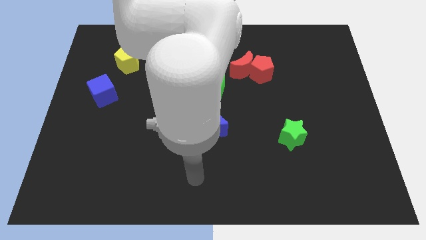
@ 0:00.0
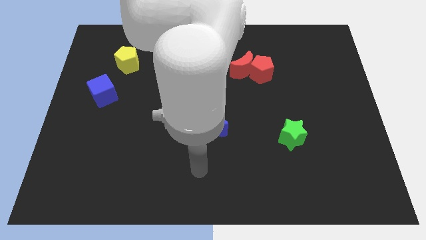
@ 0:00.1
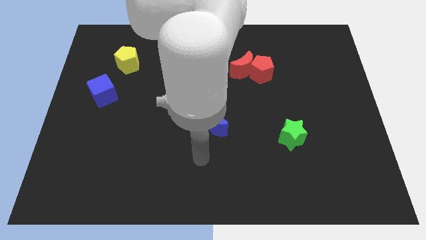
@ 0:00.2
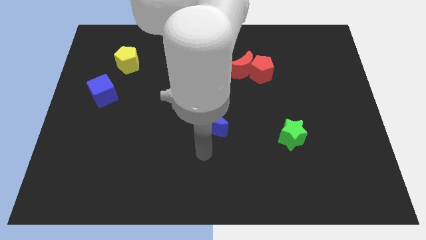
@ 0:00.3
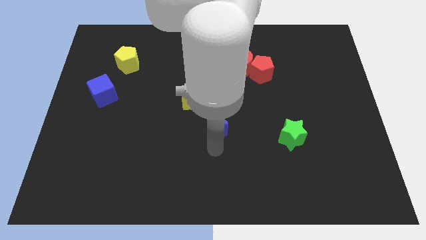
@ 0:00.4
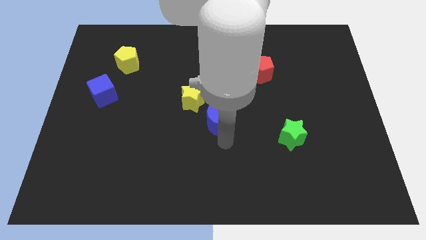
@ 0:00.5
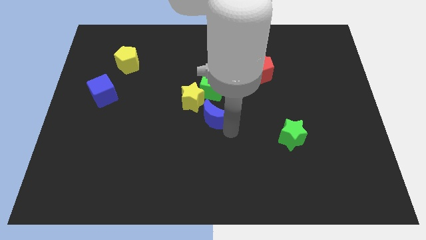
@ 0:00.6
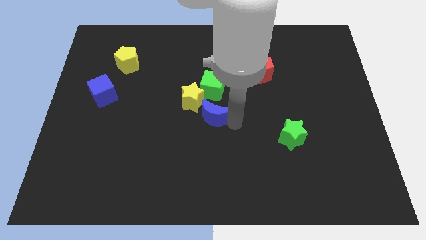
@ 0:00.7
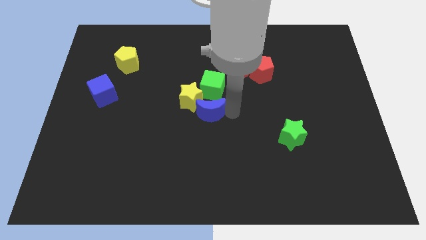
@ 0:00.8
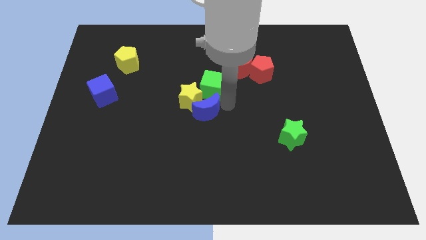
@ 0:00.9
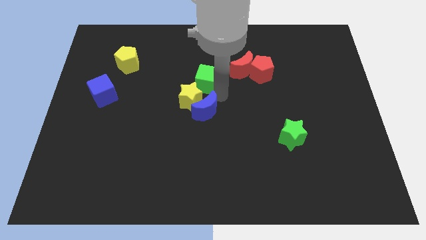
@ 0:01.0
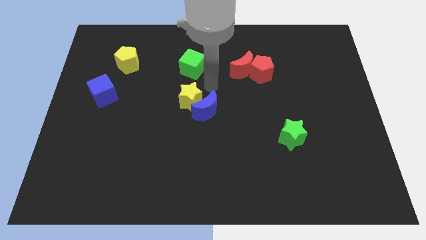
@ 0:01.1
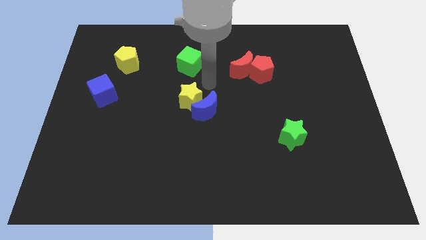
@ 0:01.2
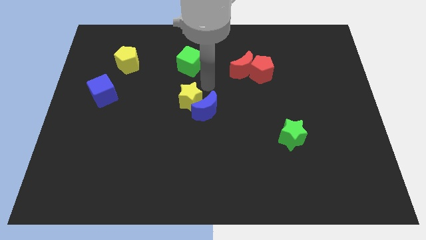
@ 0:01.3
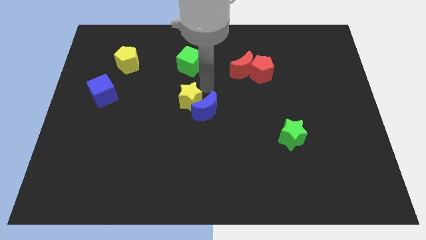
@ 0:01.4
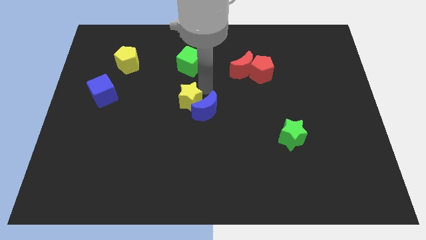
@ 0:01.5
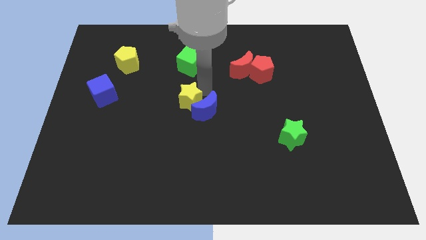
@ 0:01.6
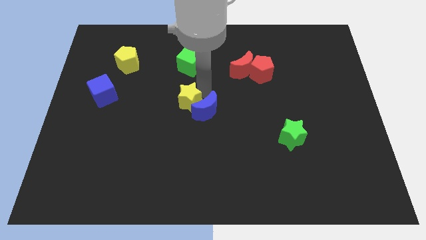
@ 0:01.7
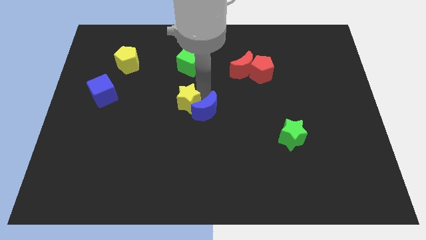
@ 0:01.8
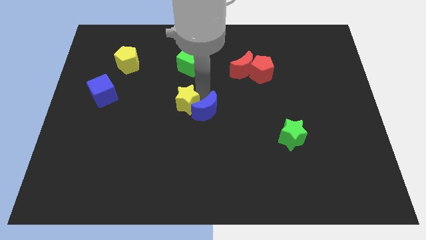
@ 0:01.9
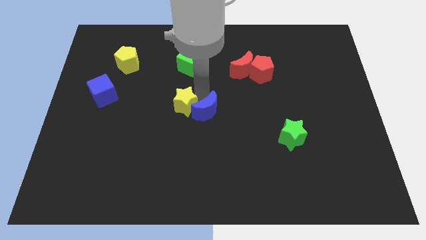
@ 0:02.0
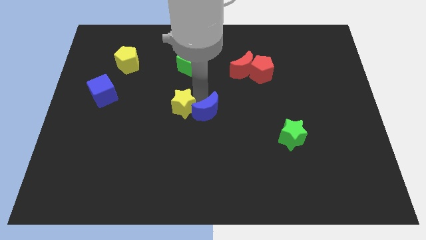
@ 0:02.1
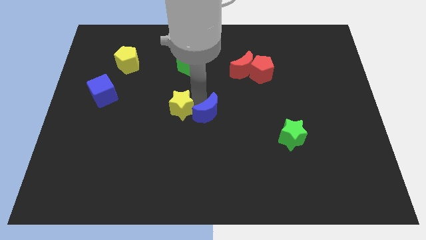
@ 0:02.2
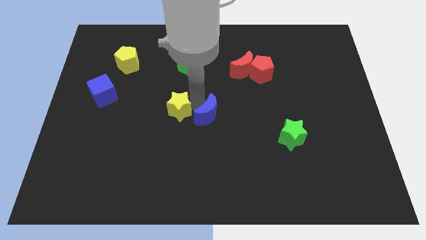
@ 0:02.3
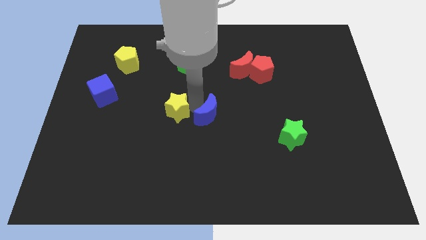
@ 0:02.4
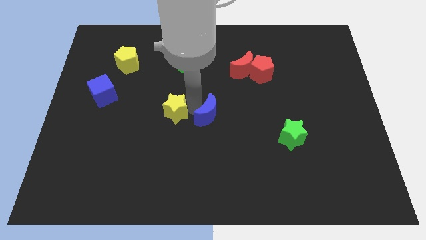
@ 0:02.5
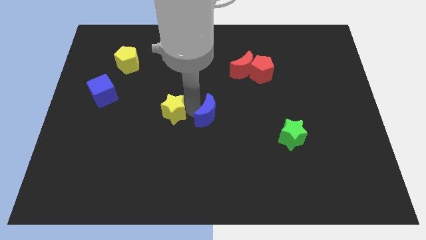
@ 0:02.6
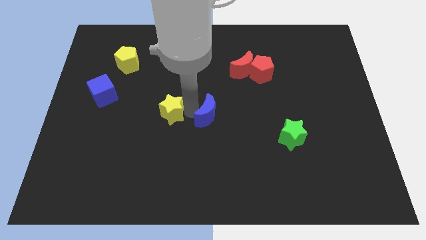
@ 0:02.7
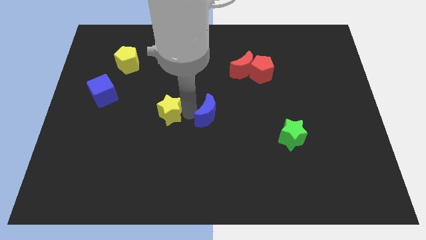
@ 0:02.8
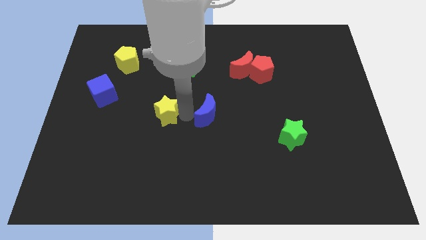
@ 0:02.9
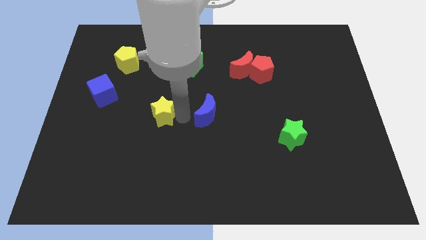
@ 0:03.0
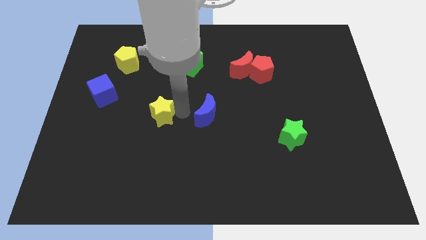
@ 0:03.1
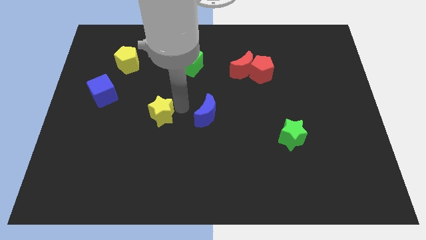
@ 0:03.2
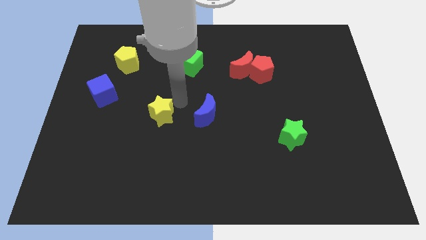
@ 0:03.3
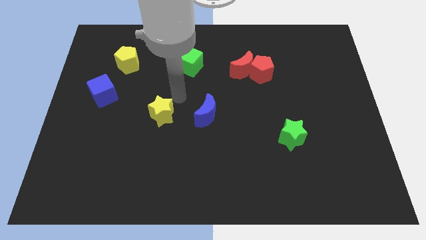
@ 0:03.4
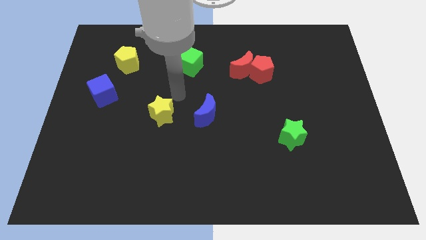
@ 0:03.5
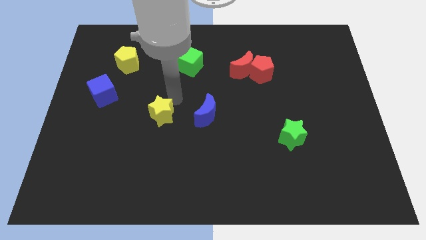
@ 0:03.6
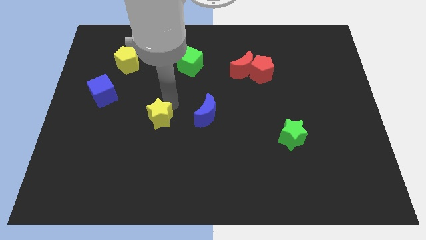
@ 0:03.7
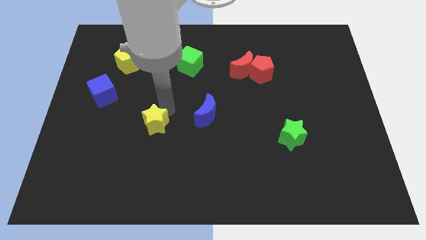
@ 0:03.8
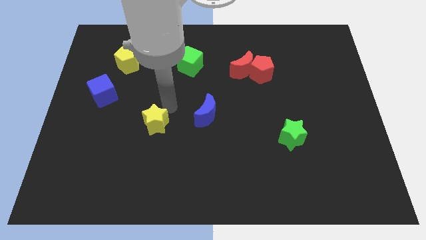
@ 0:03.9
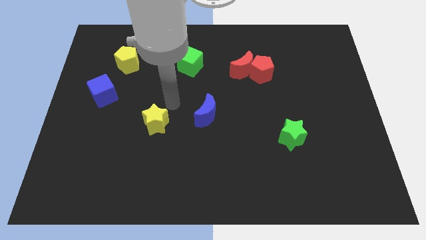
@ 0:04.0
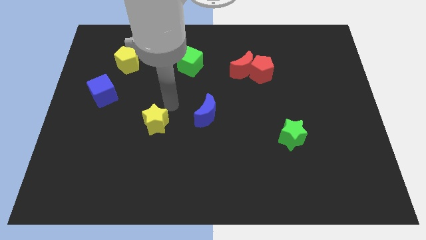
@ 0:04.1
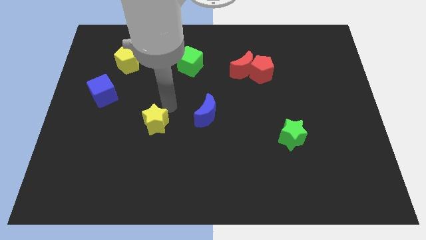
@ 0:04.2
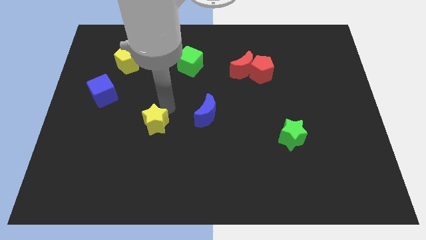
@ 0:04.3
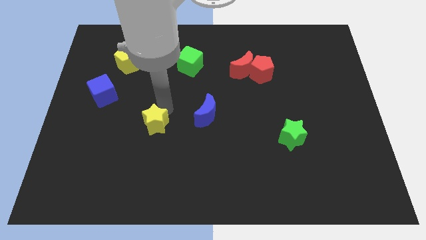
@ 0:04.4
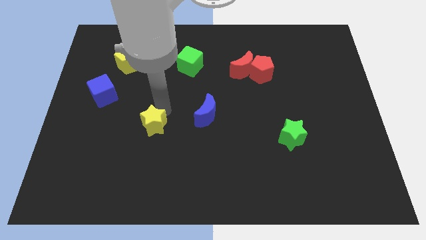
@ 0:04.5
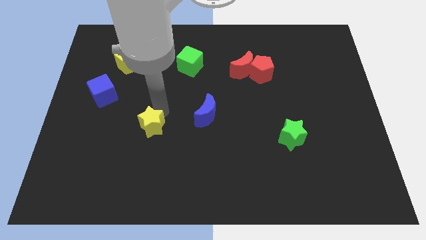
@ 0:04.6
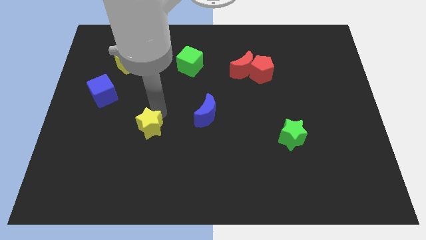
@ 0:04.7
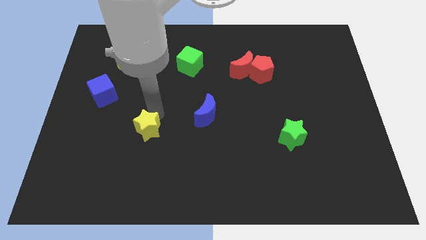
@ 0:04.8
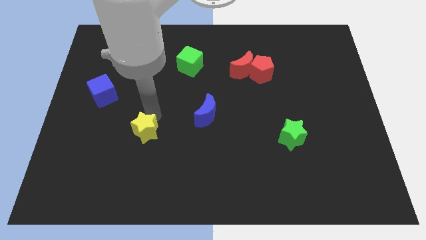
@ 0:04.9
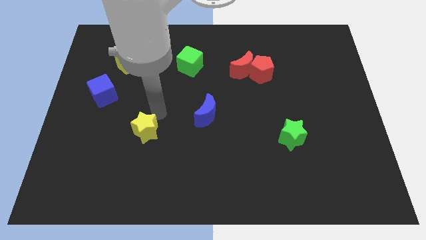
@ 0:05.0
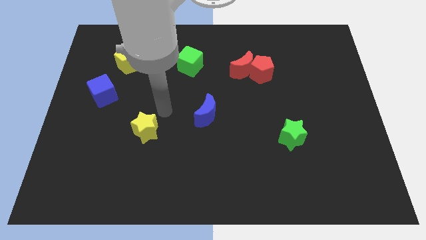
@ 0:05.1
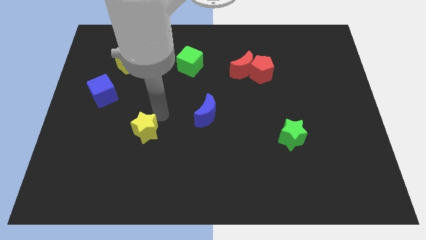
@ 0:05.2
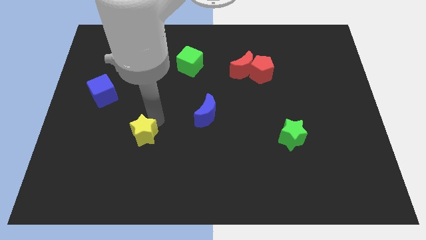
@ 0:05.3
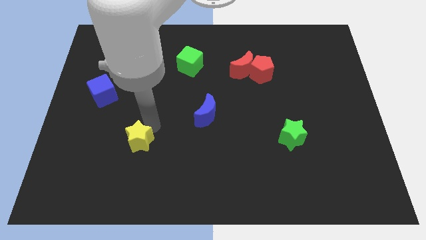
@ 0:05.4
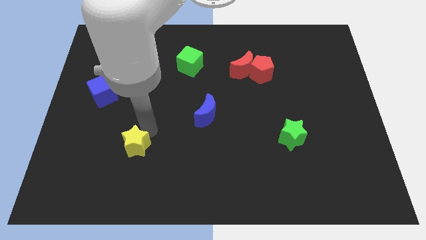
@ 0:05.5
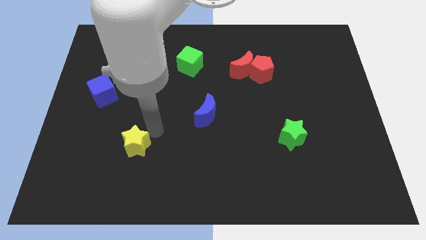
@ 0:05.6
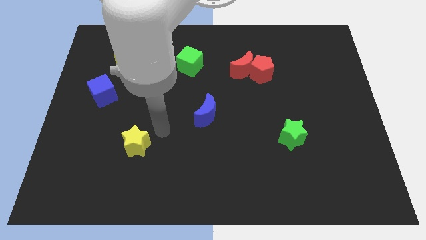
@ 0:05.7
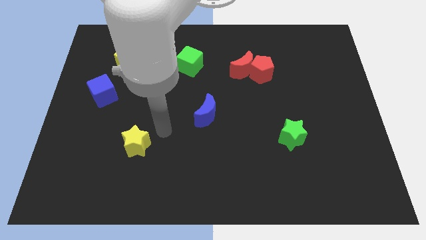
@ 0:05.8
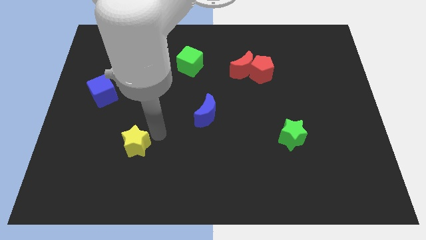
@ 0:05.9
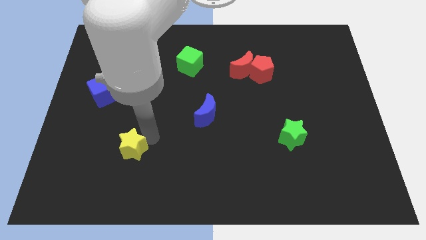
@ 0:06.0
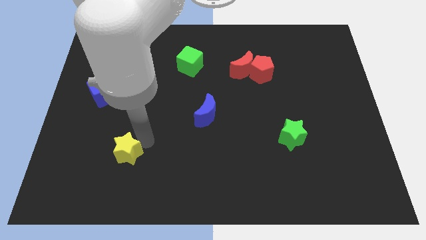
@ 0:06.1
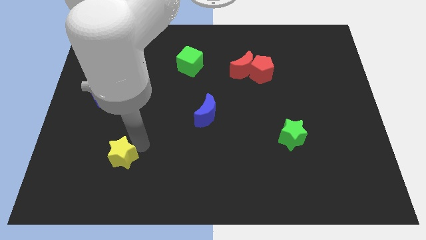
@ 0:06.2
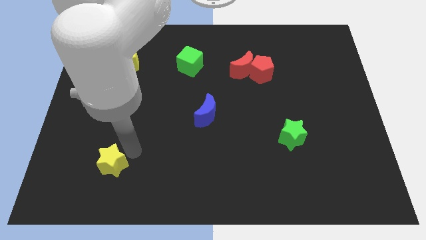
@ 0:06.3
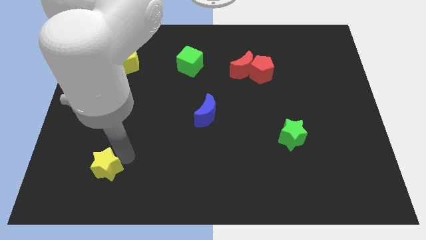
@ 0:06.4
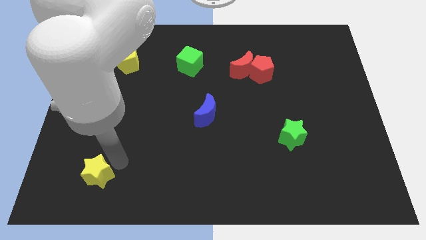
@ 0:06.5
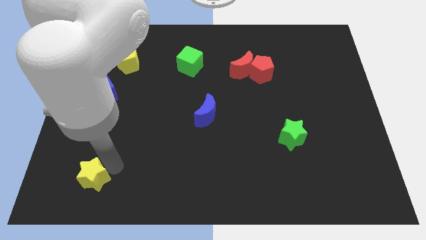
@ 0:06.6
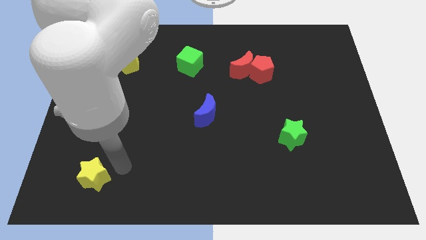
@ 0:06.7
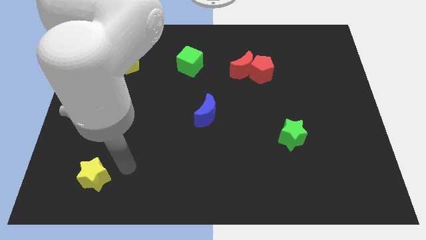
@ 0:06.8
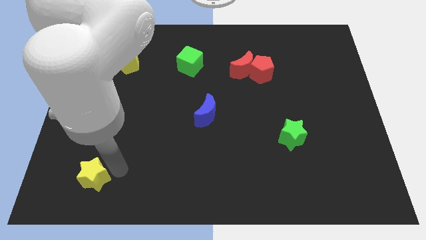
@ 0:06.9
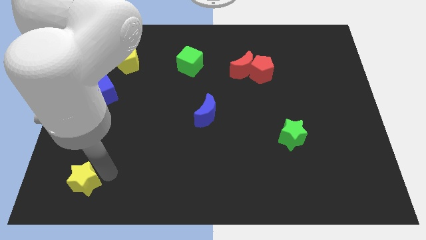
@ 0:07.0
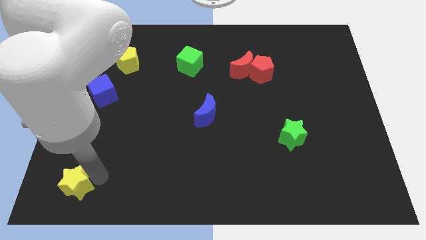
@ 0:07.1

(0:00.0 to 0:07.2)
move the yellow star to the bottom left of the board
